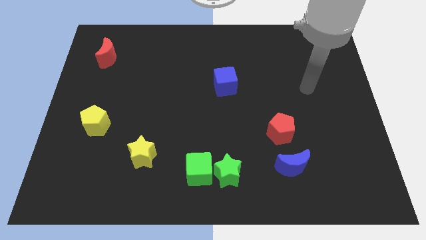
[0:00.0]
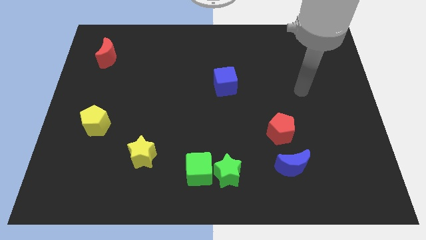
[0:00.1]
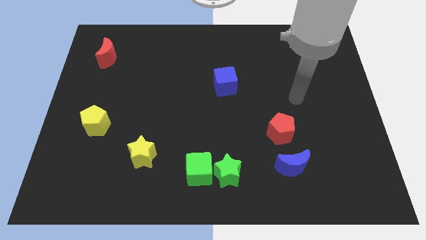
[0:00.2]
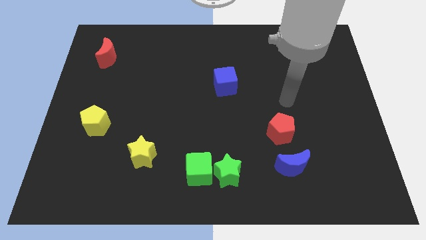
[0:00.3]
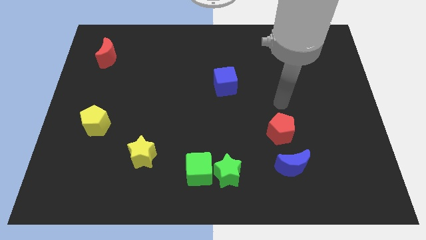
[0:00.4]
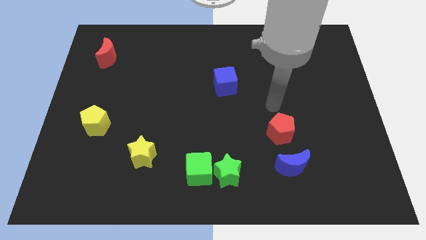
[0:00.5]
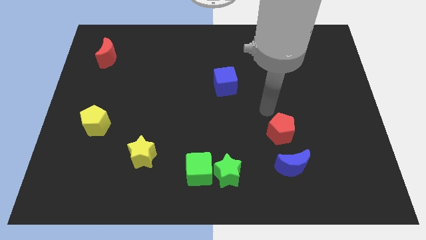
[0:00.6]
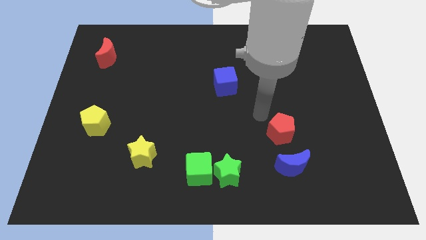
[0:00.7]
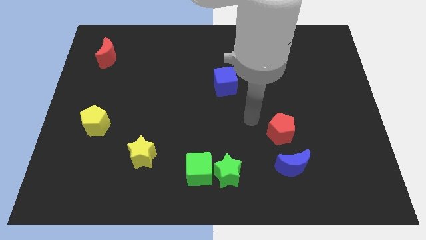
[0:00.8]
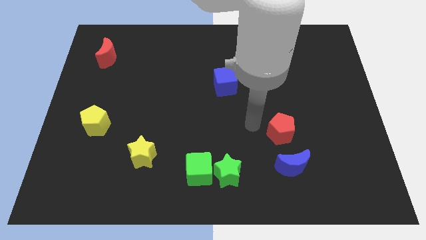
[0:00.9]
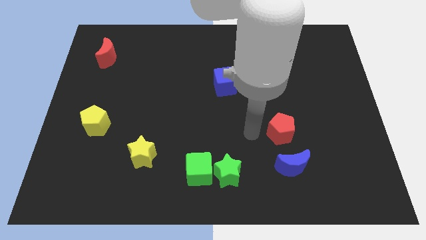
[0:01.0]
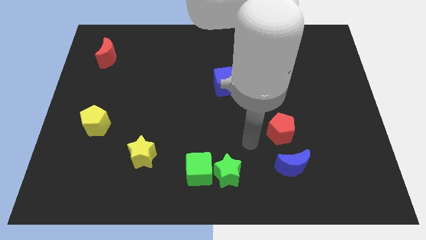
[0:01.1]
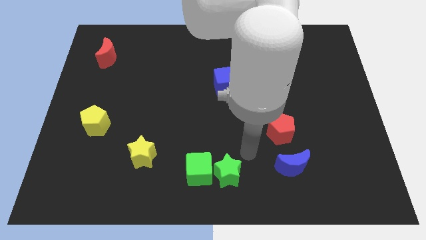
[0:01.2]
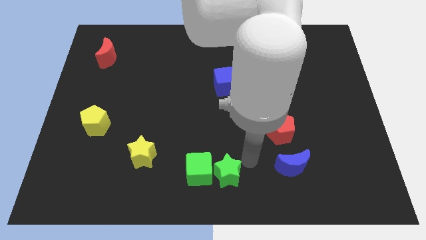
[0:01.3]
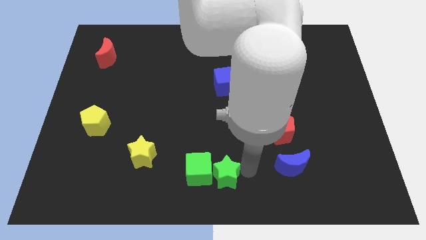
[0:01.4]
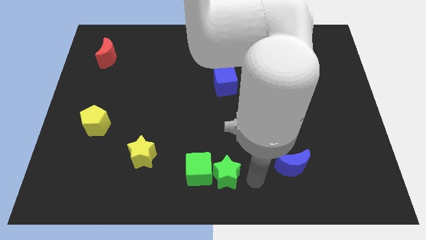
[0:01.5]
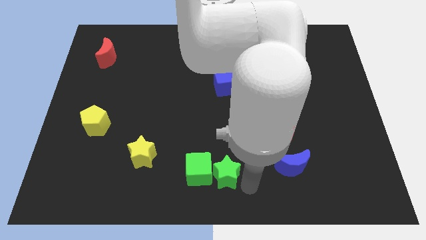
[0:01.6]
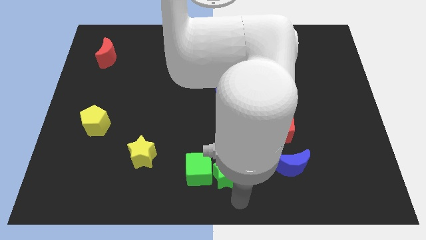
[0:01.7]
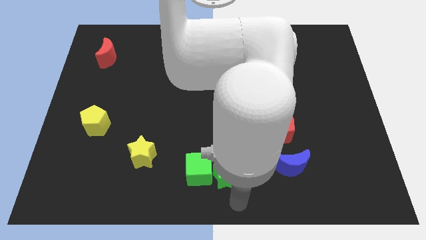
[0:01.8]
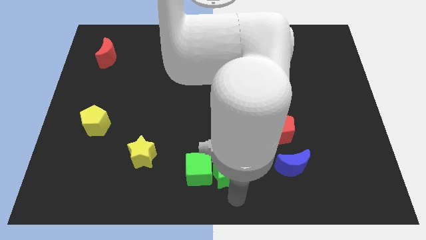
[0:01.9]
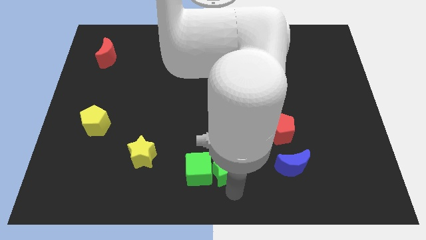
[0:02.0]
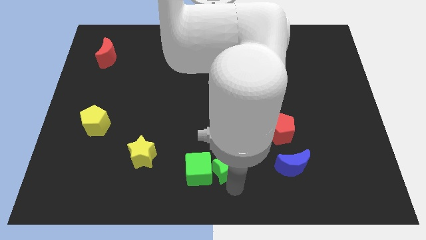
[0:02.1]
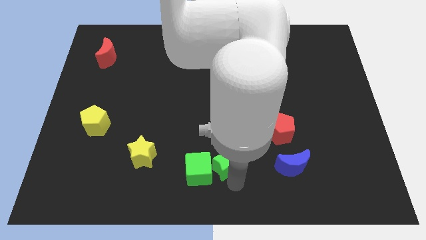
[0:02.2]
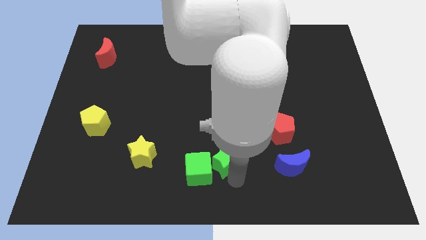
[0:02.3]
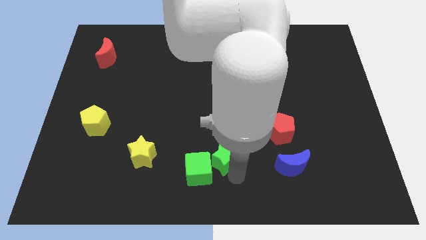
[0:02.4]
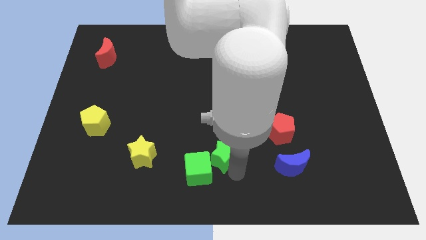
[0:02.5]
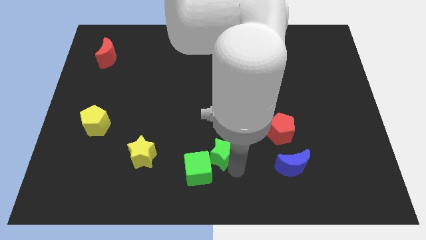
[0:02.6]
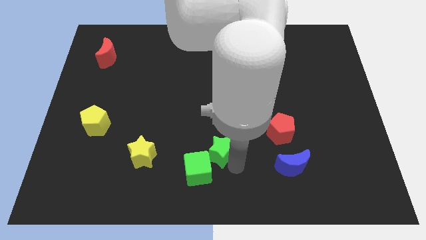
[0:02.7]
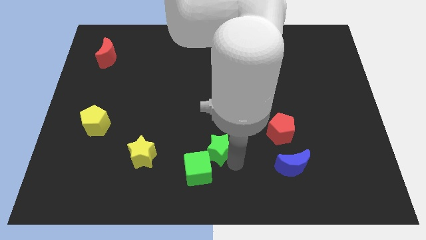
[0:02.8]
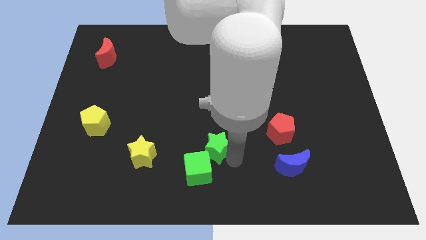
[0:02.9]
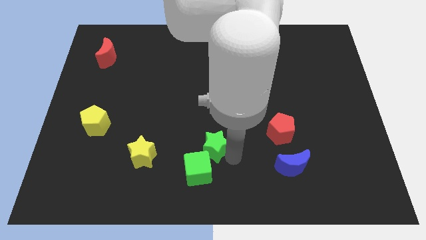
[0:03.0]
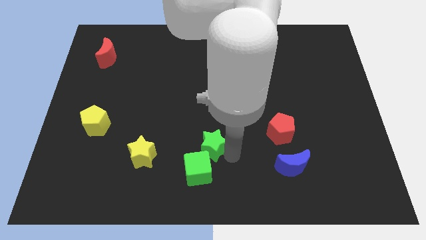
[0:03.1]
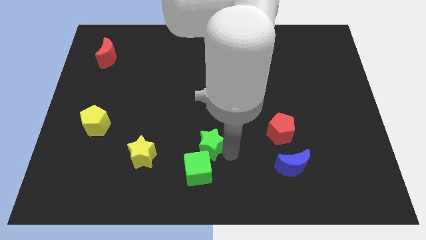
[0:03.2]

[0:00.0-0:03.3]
move the green star a little bit up and left

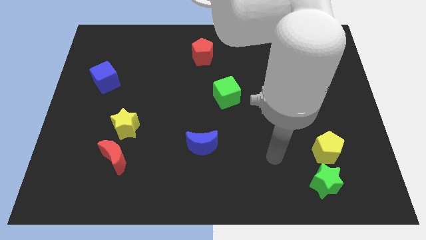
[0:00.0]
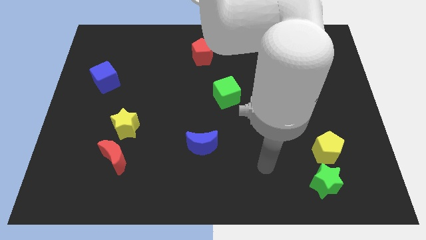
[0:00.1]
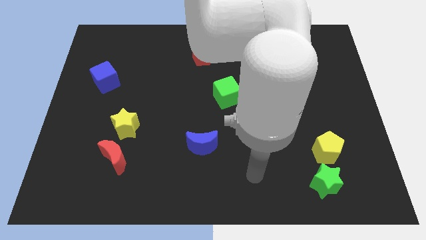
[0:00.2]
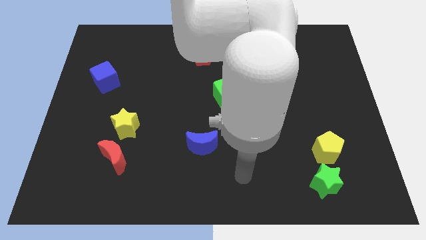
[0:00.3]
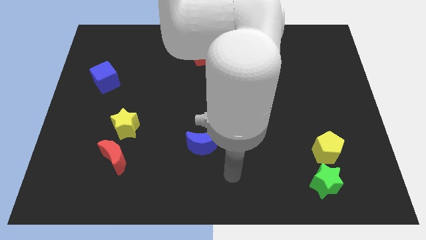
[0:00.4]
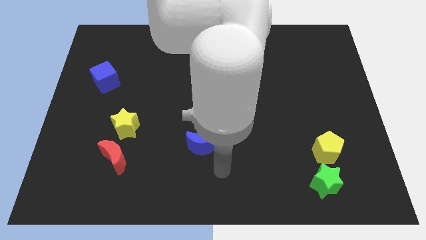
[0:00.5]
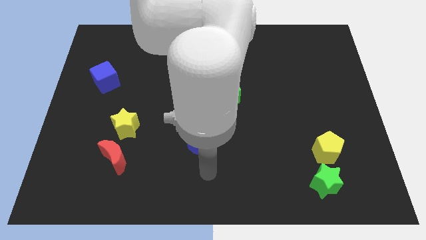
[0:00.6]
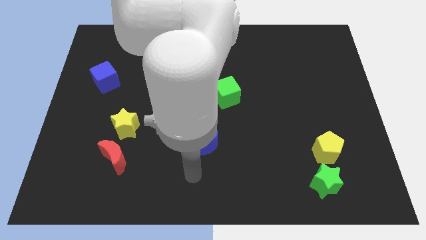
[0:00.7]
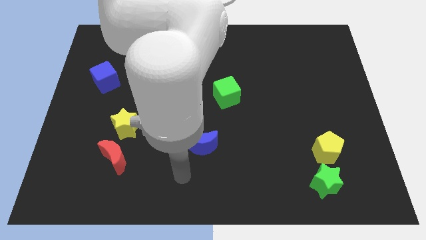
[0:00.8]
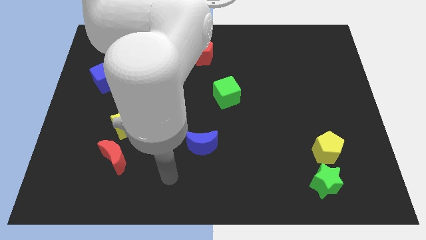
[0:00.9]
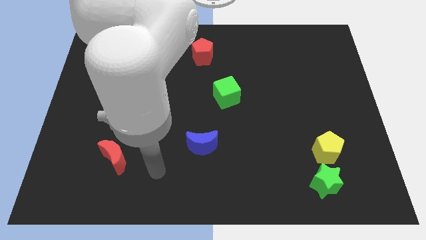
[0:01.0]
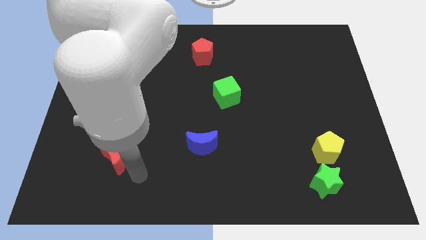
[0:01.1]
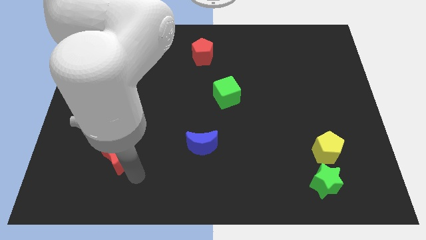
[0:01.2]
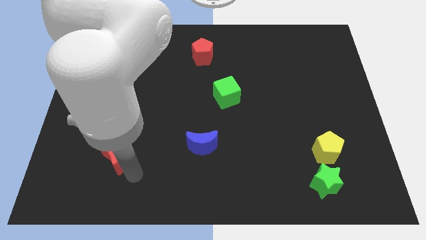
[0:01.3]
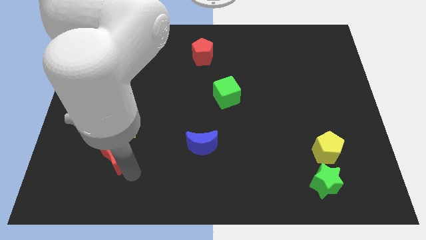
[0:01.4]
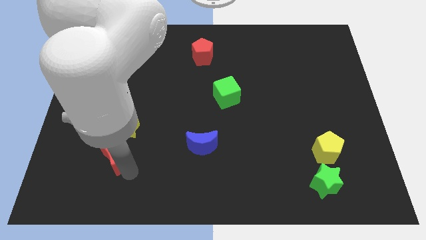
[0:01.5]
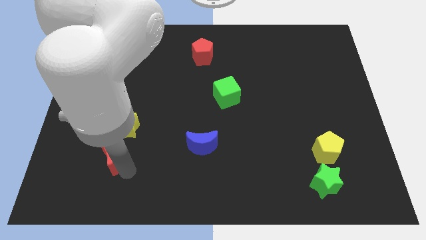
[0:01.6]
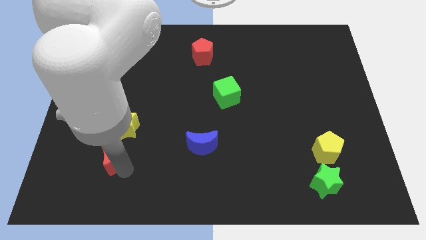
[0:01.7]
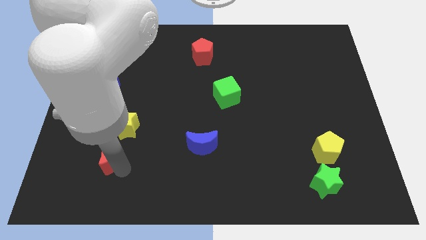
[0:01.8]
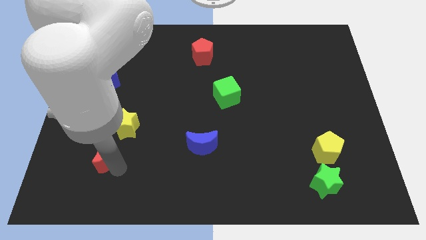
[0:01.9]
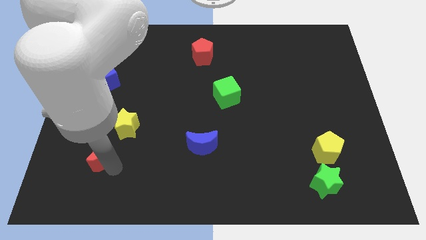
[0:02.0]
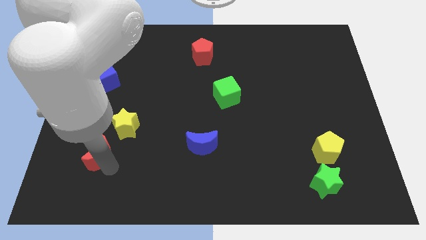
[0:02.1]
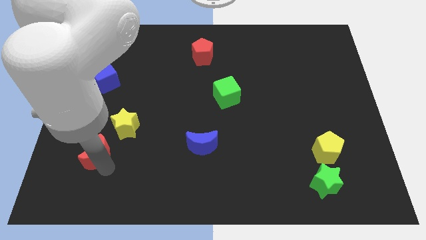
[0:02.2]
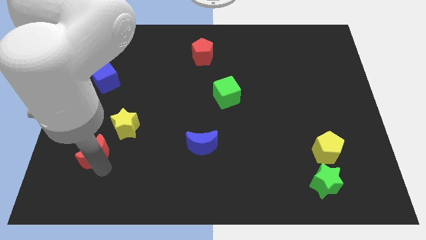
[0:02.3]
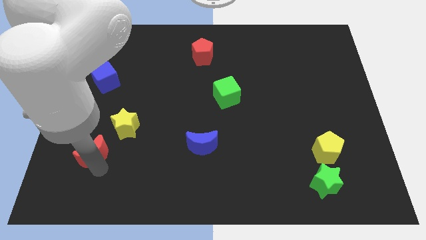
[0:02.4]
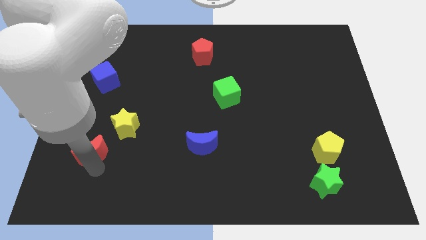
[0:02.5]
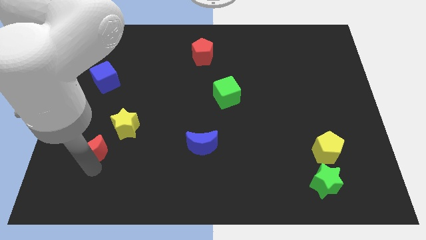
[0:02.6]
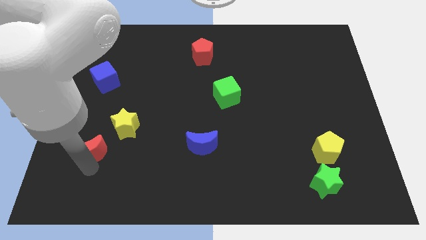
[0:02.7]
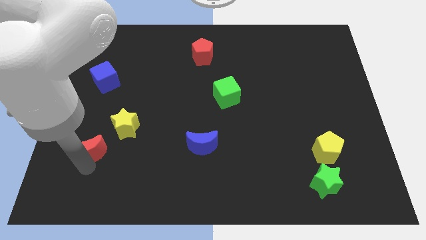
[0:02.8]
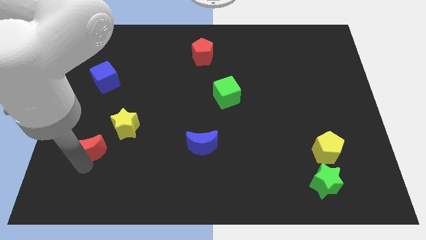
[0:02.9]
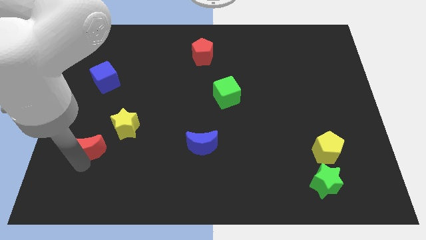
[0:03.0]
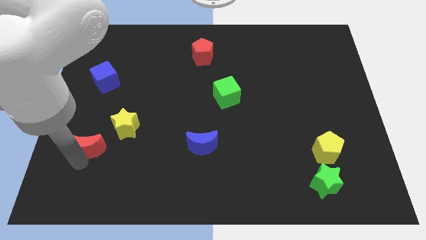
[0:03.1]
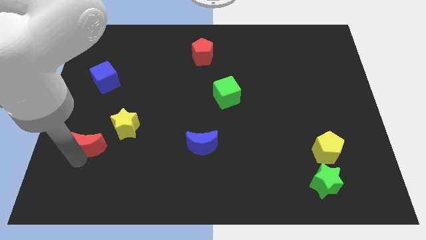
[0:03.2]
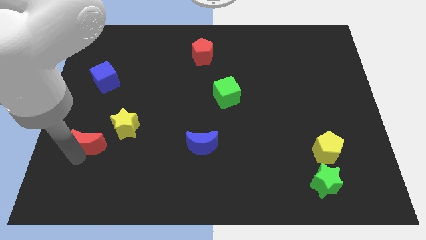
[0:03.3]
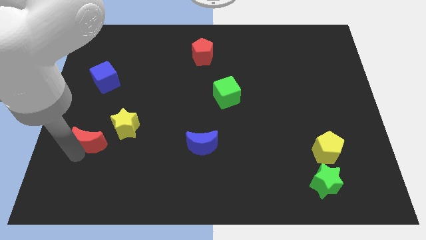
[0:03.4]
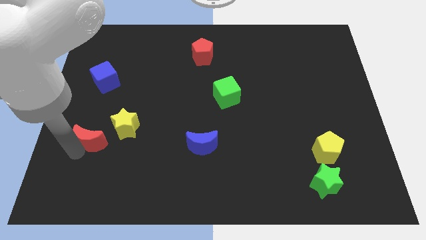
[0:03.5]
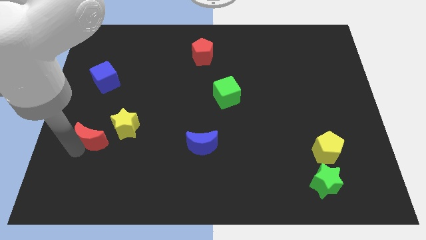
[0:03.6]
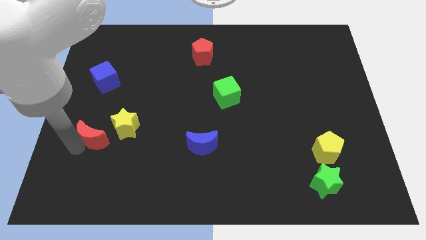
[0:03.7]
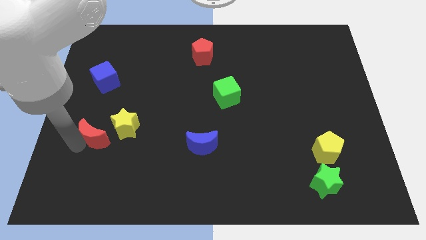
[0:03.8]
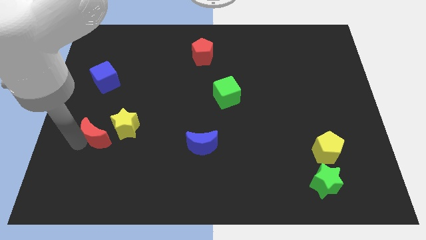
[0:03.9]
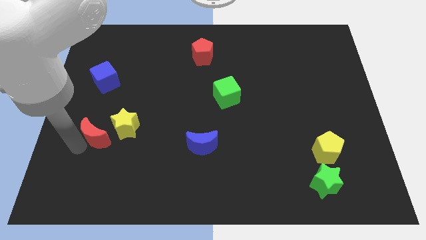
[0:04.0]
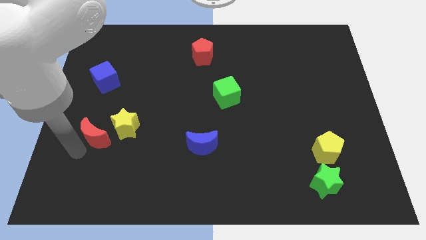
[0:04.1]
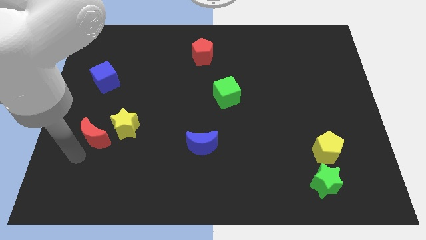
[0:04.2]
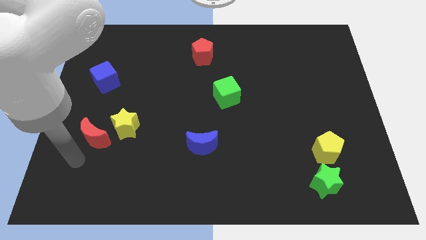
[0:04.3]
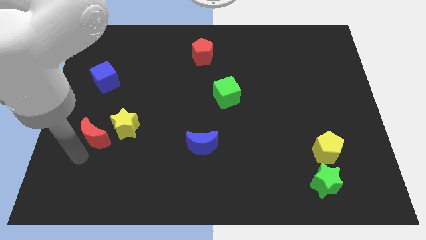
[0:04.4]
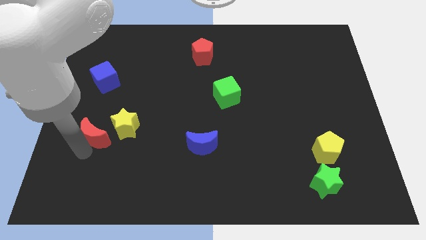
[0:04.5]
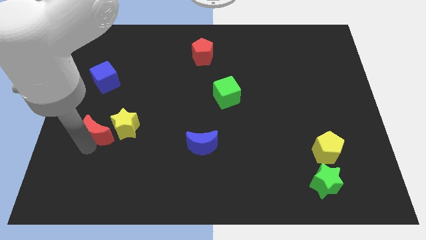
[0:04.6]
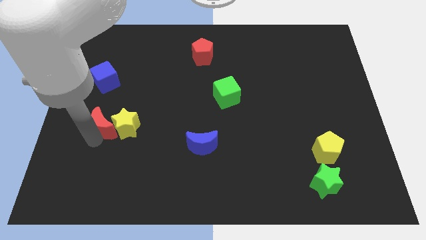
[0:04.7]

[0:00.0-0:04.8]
slightly move the red moon upwards
